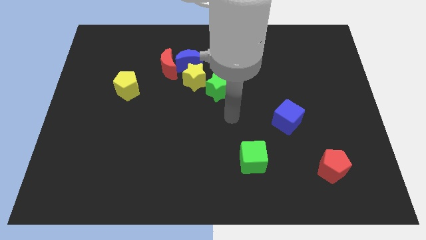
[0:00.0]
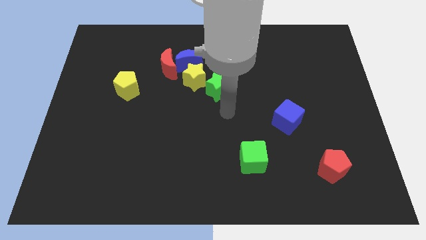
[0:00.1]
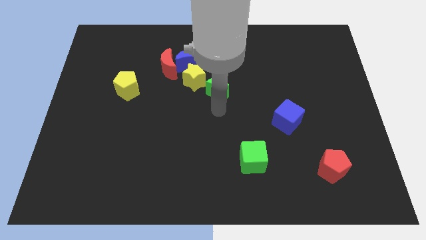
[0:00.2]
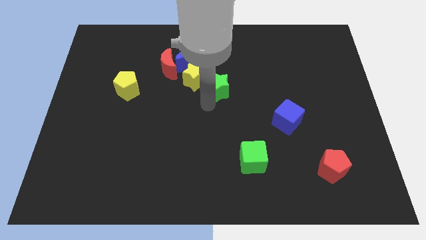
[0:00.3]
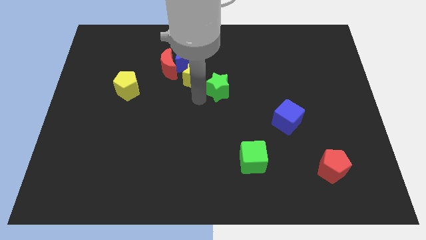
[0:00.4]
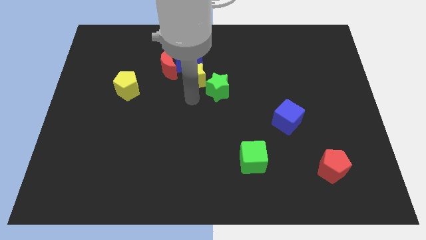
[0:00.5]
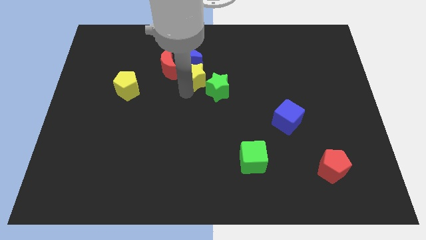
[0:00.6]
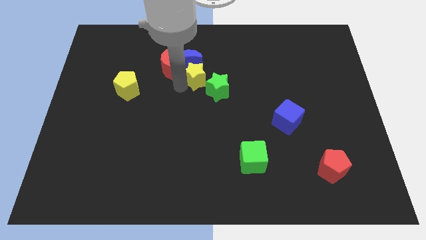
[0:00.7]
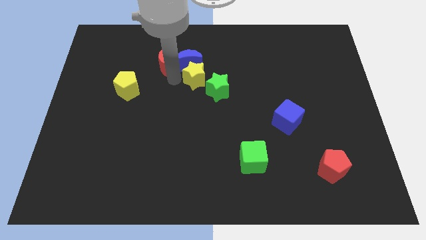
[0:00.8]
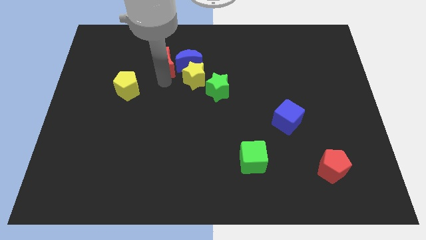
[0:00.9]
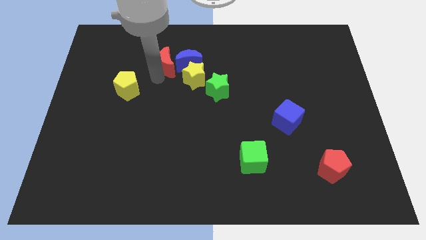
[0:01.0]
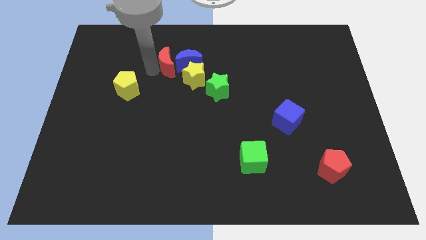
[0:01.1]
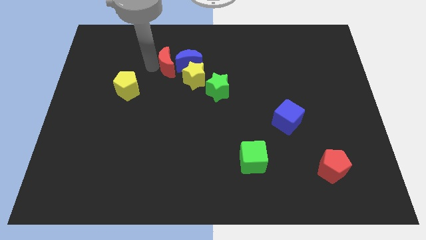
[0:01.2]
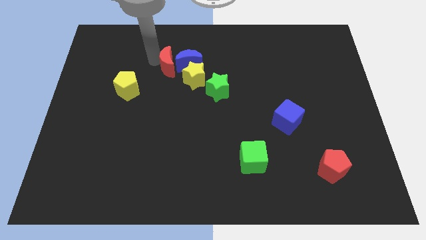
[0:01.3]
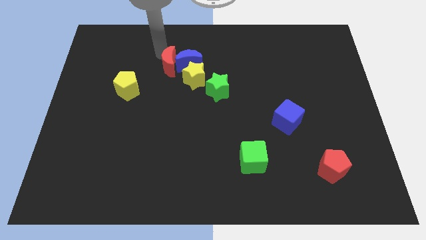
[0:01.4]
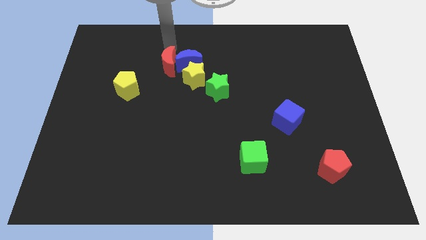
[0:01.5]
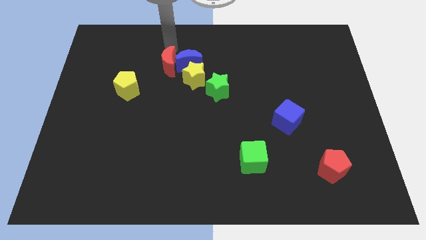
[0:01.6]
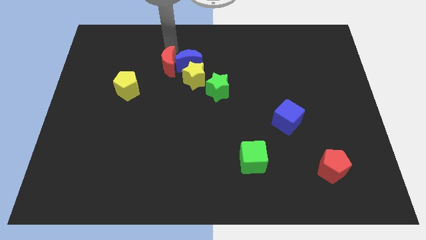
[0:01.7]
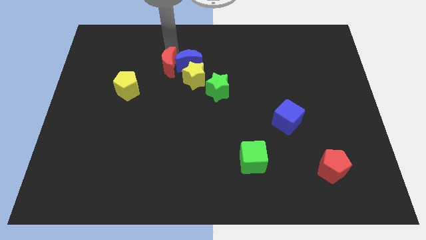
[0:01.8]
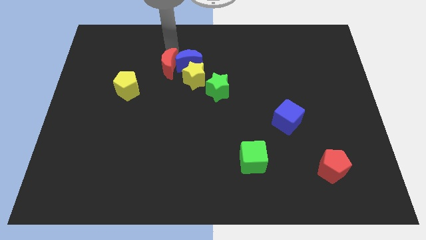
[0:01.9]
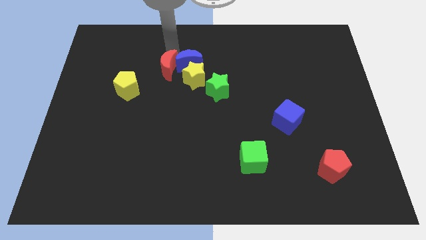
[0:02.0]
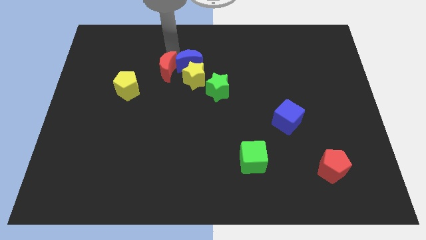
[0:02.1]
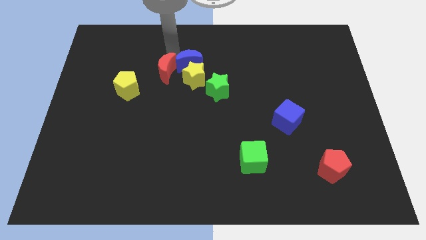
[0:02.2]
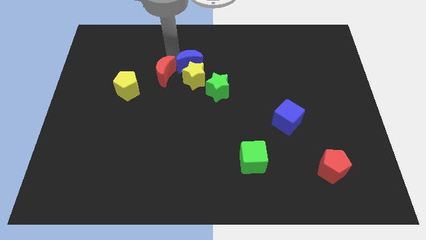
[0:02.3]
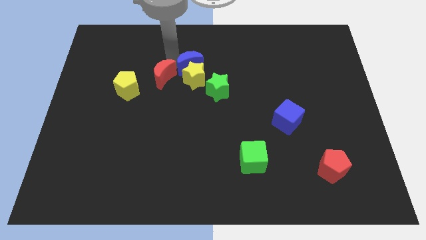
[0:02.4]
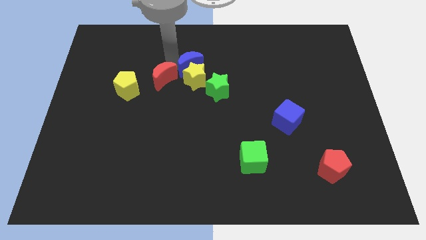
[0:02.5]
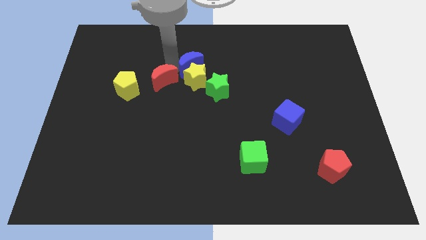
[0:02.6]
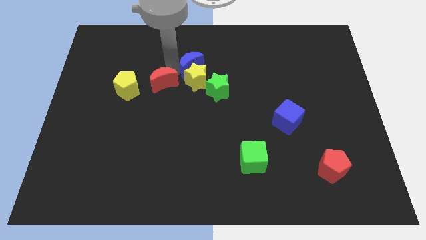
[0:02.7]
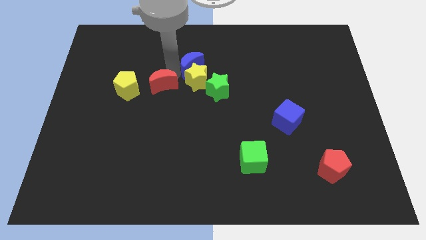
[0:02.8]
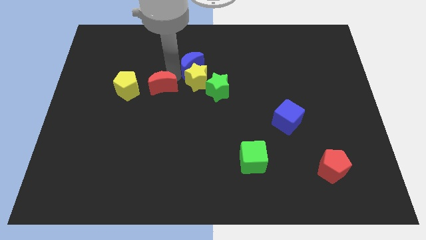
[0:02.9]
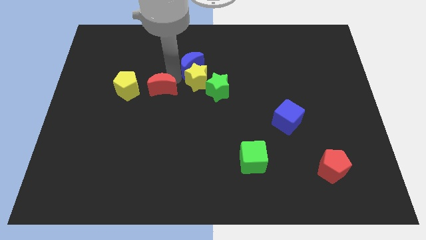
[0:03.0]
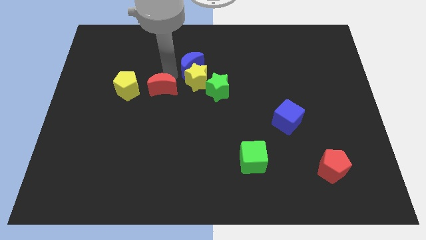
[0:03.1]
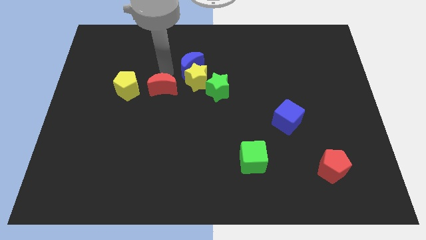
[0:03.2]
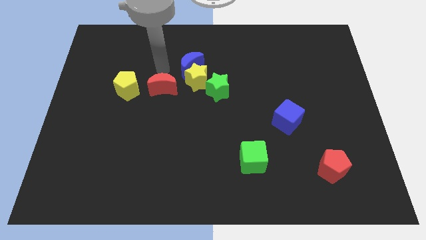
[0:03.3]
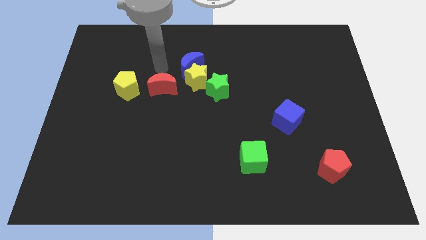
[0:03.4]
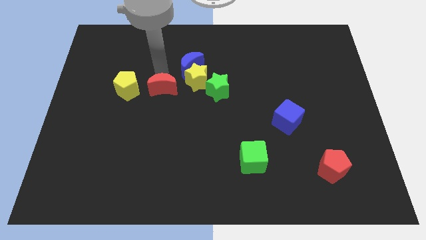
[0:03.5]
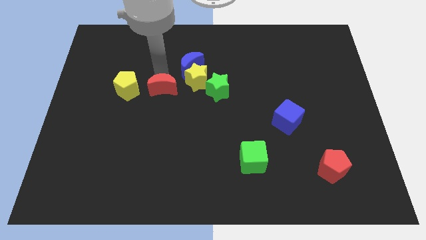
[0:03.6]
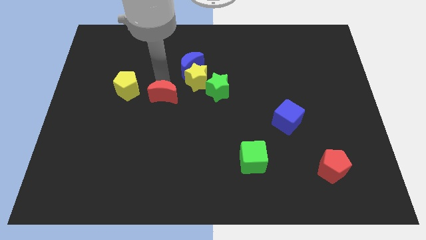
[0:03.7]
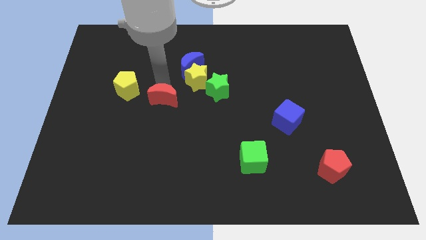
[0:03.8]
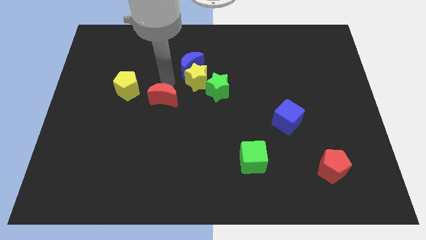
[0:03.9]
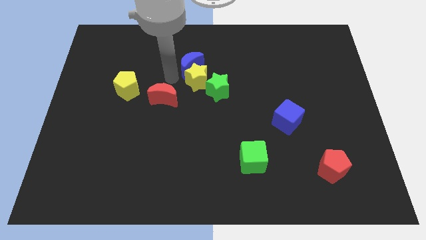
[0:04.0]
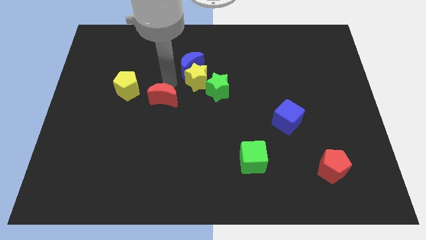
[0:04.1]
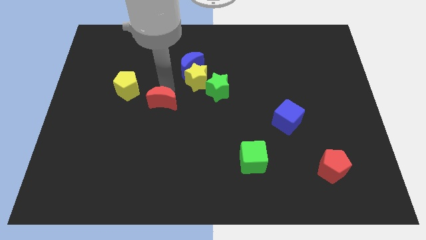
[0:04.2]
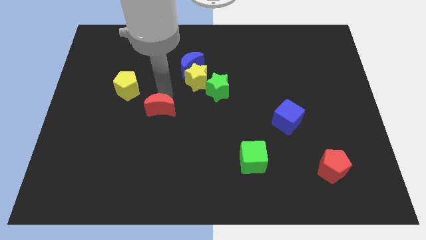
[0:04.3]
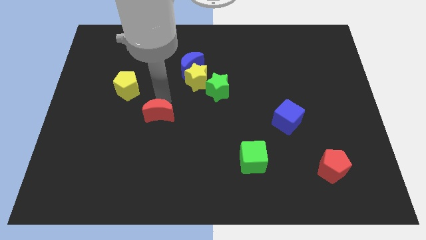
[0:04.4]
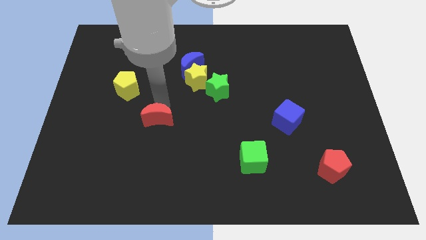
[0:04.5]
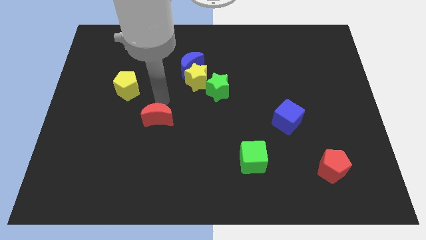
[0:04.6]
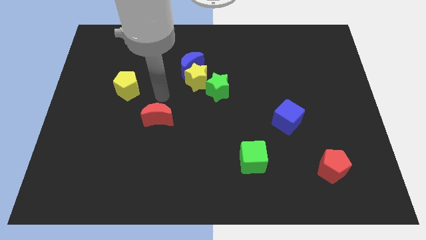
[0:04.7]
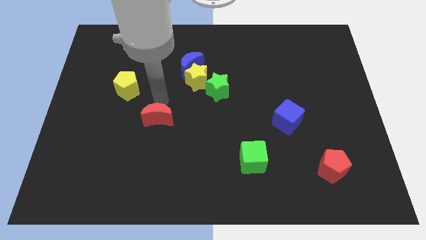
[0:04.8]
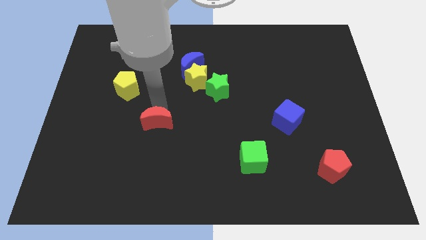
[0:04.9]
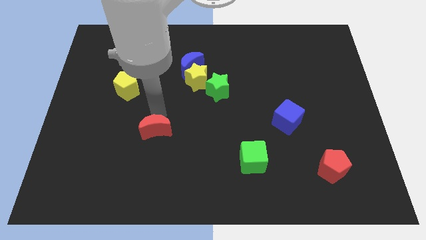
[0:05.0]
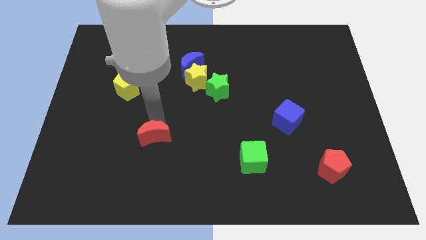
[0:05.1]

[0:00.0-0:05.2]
push the red moon downwards

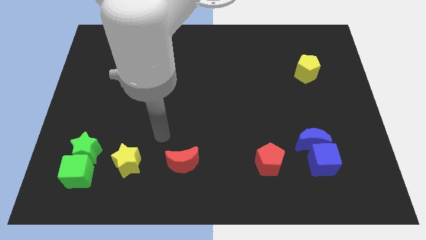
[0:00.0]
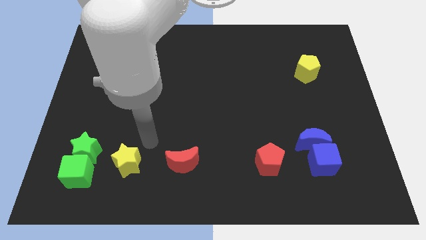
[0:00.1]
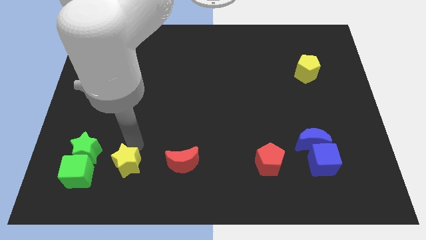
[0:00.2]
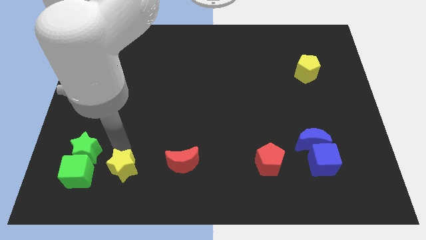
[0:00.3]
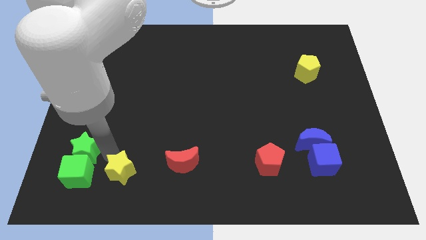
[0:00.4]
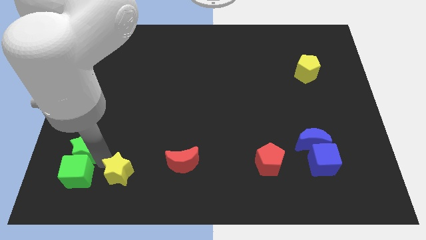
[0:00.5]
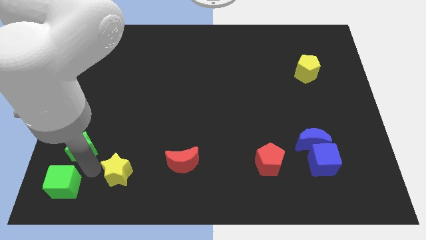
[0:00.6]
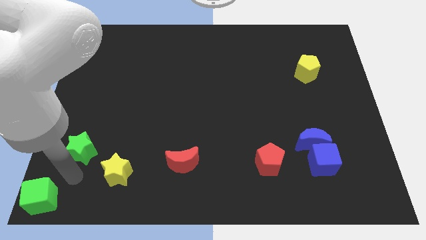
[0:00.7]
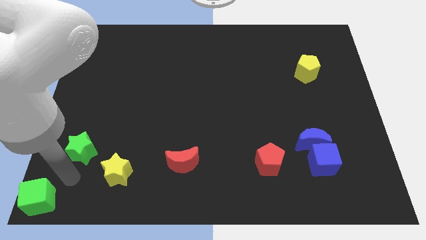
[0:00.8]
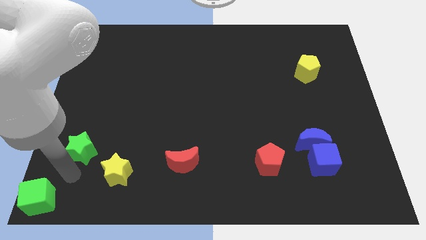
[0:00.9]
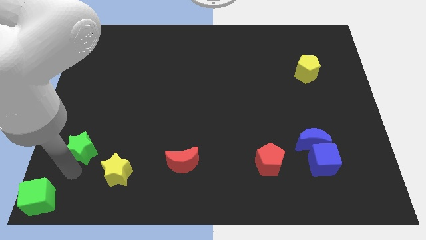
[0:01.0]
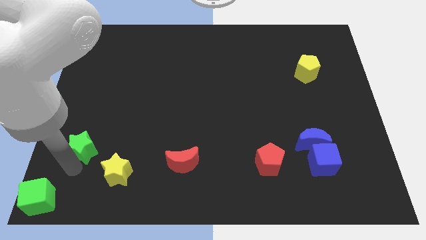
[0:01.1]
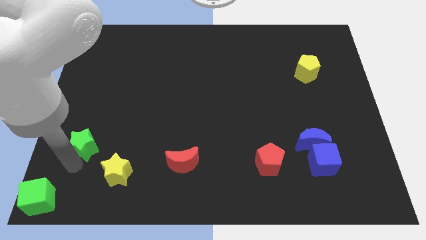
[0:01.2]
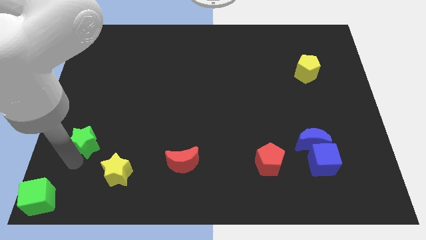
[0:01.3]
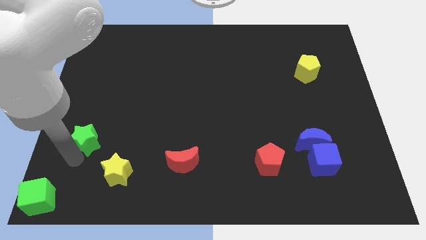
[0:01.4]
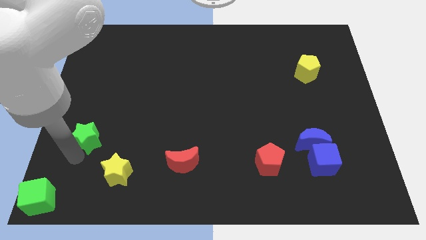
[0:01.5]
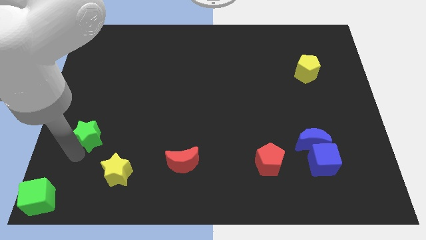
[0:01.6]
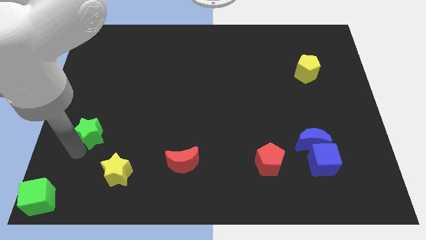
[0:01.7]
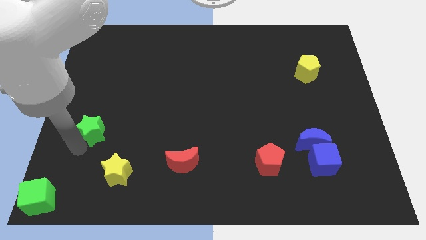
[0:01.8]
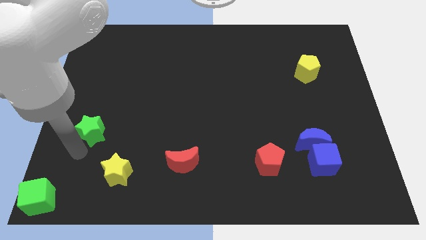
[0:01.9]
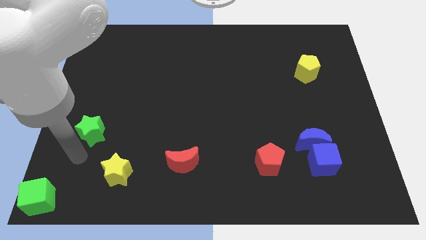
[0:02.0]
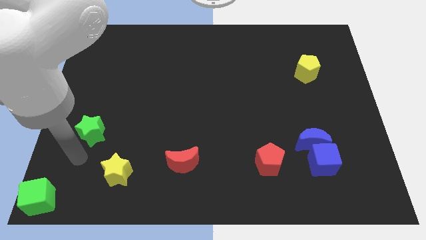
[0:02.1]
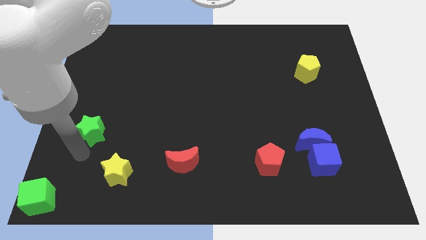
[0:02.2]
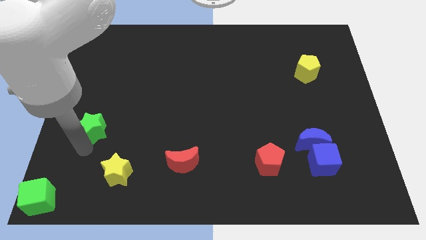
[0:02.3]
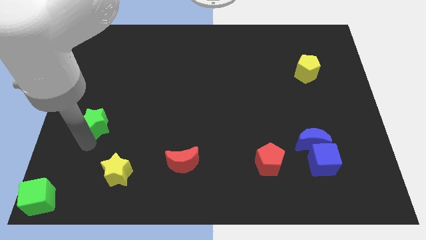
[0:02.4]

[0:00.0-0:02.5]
slightly push the green star up

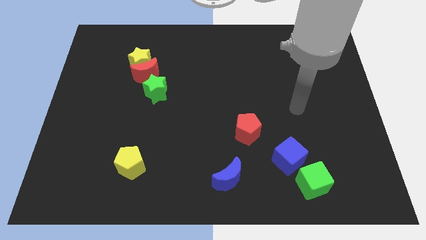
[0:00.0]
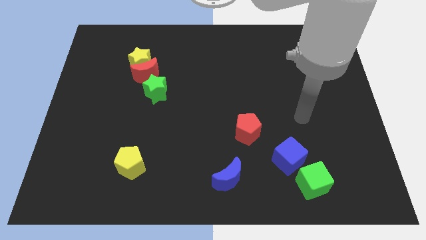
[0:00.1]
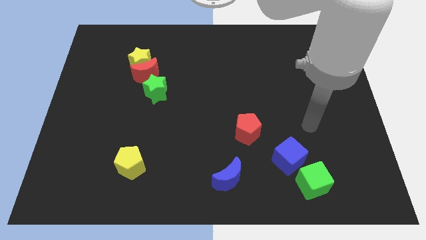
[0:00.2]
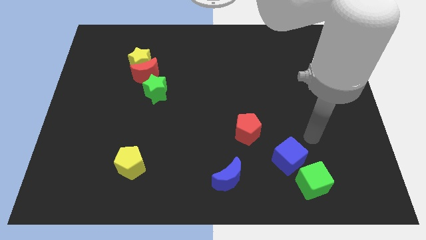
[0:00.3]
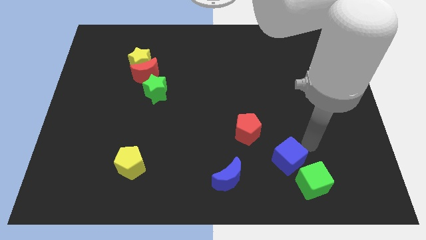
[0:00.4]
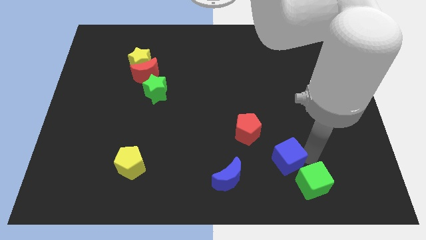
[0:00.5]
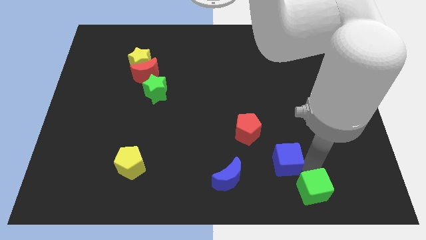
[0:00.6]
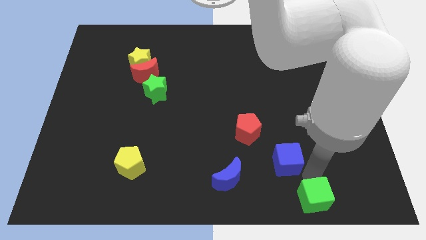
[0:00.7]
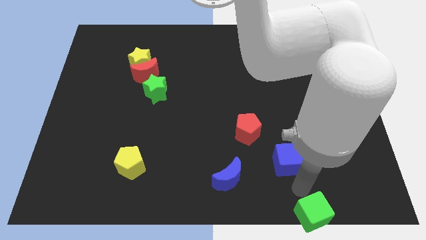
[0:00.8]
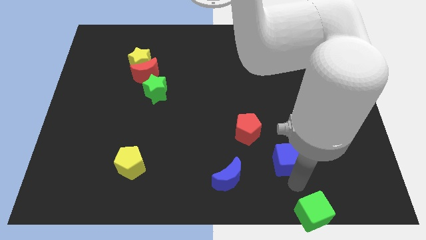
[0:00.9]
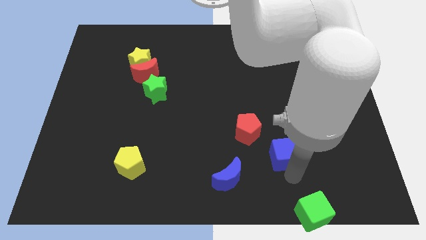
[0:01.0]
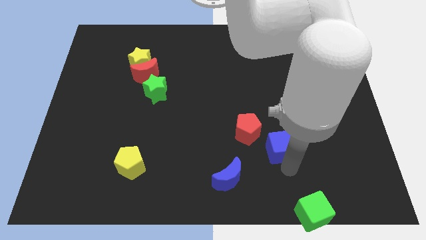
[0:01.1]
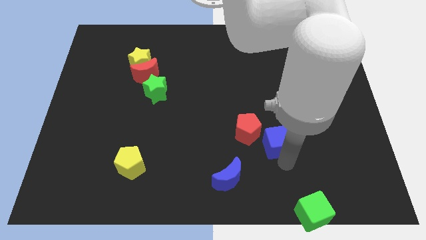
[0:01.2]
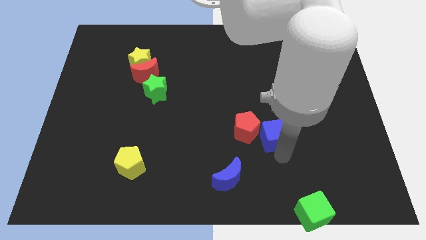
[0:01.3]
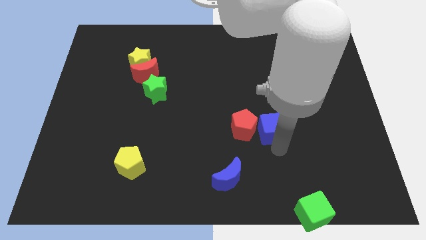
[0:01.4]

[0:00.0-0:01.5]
slide the blue cube upwards and left a little bit
